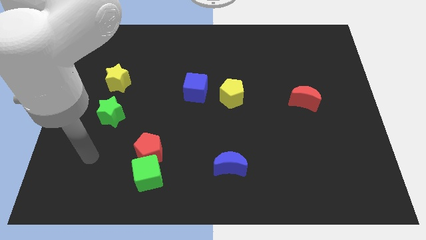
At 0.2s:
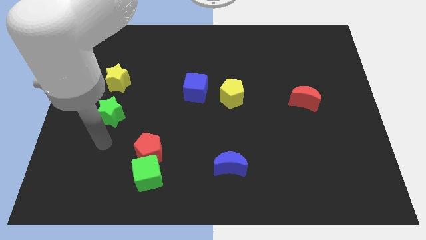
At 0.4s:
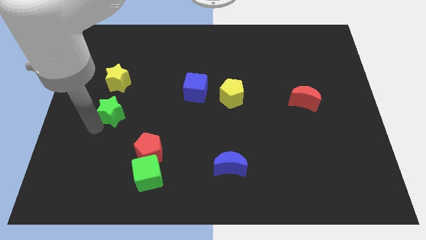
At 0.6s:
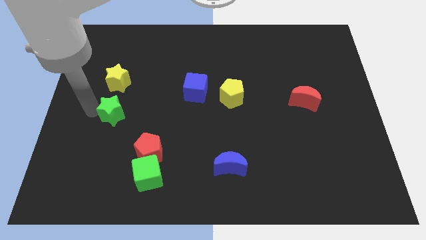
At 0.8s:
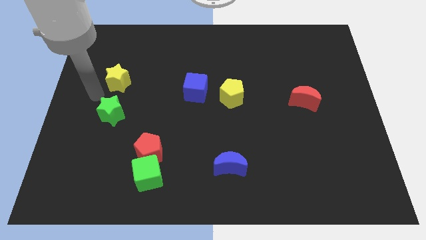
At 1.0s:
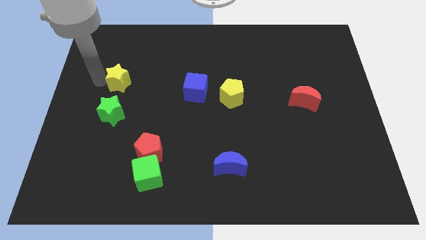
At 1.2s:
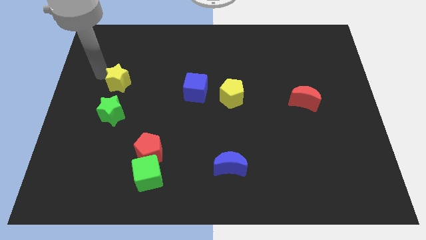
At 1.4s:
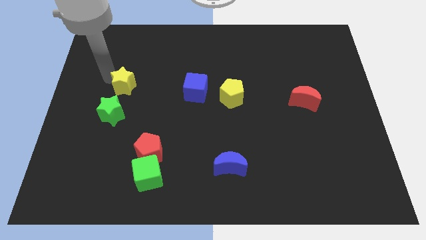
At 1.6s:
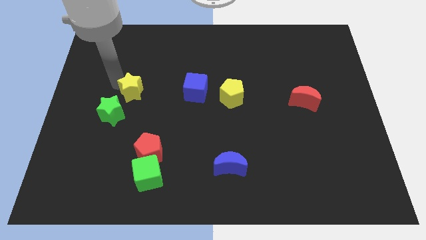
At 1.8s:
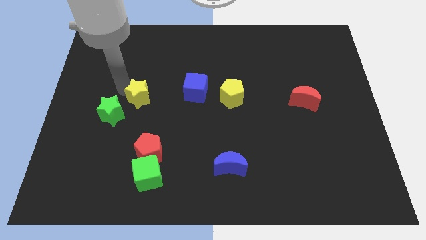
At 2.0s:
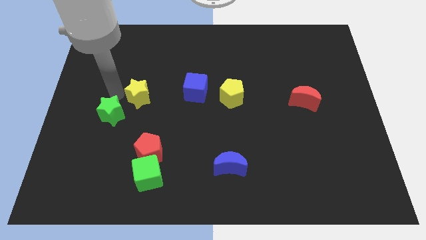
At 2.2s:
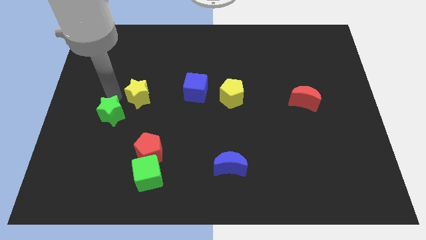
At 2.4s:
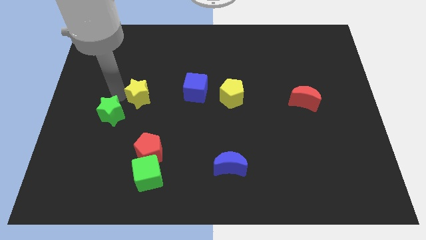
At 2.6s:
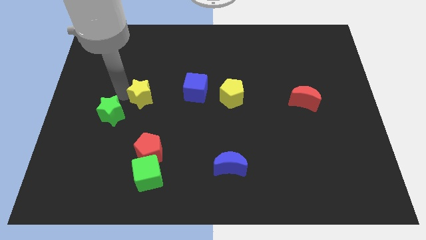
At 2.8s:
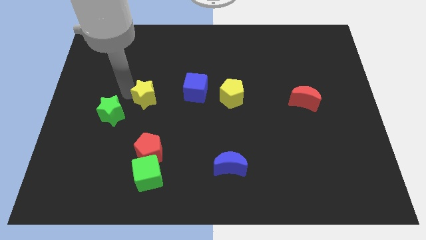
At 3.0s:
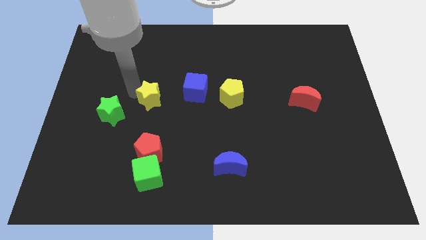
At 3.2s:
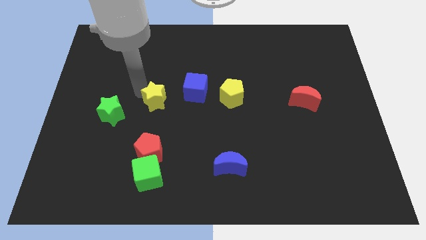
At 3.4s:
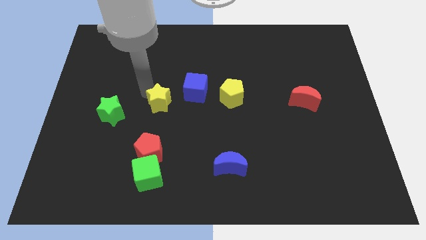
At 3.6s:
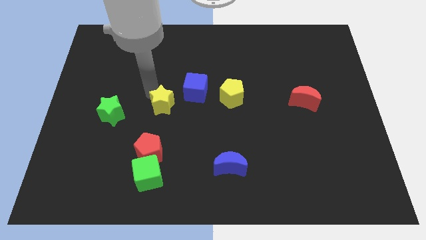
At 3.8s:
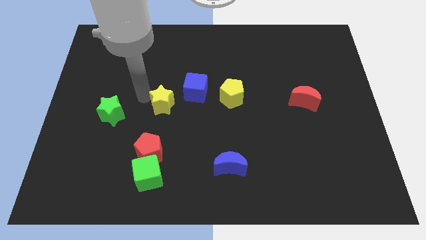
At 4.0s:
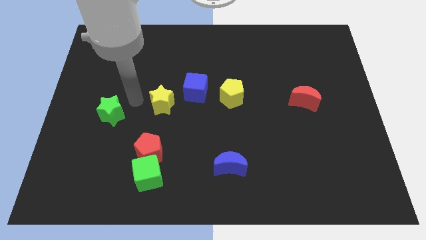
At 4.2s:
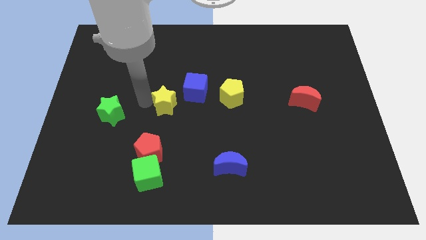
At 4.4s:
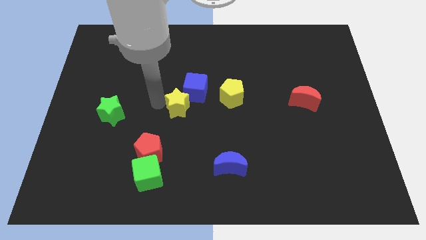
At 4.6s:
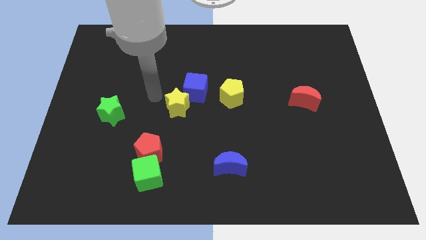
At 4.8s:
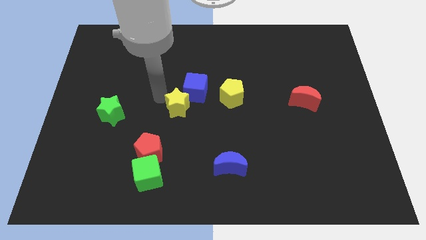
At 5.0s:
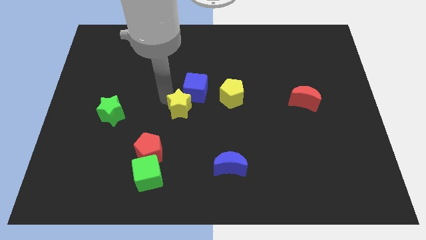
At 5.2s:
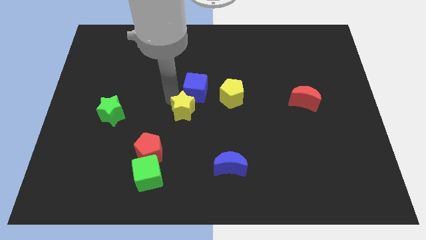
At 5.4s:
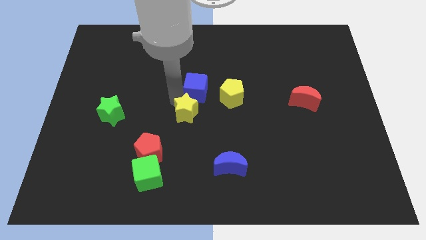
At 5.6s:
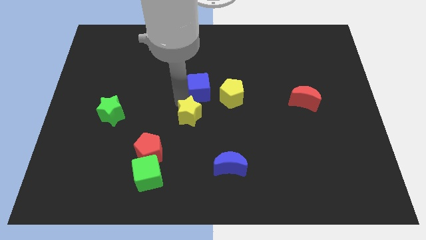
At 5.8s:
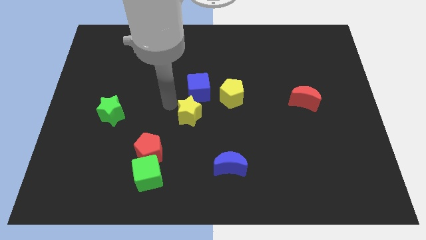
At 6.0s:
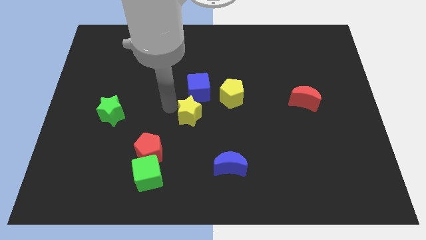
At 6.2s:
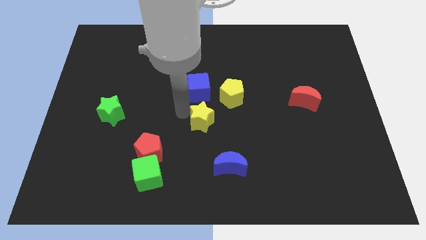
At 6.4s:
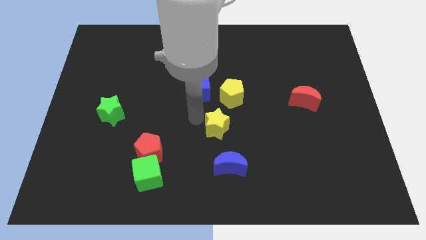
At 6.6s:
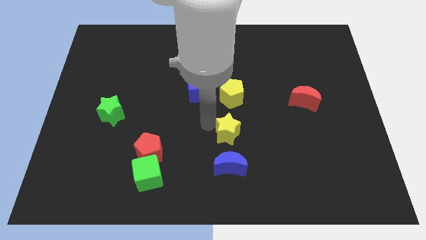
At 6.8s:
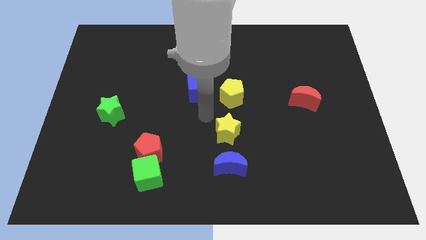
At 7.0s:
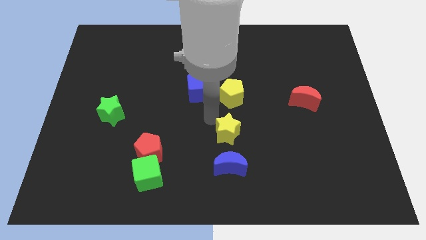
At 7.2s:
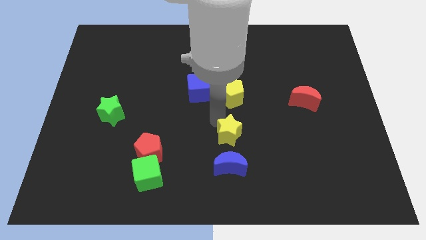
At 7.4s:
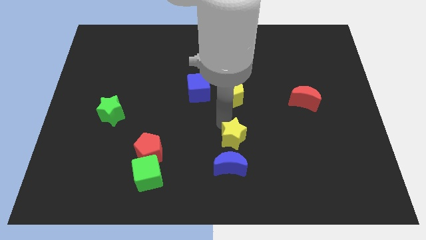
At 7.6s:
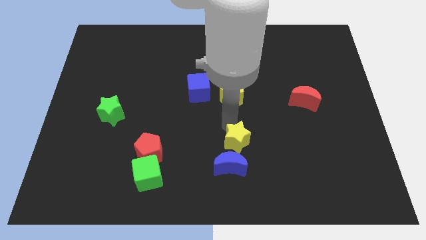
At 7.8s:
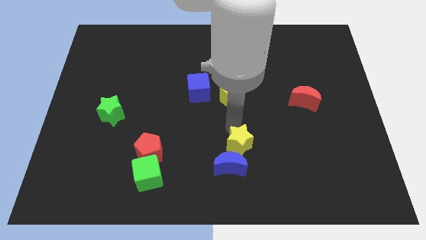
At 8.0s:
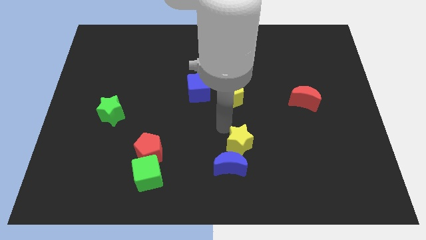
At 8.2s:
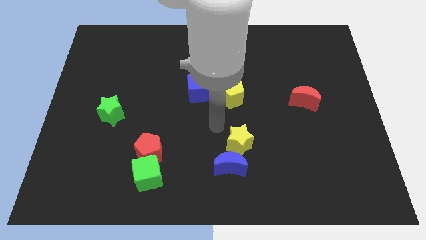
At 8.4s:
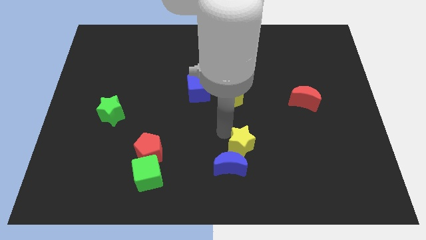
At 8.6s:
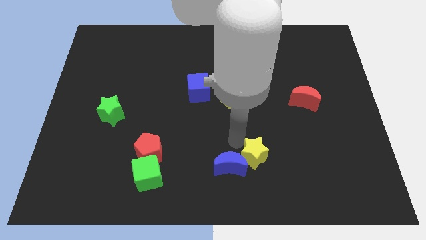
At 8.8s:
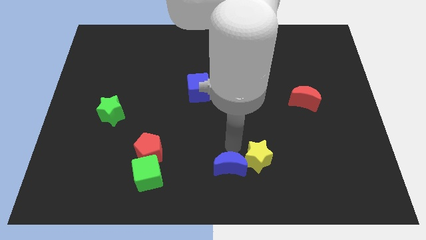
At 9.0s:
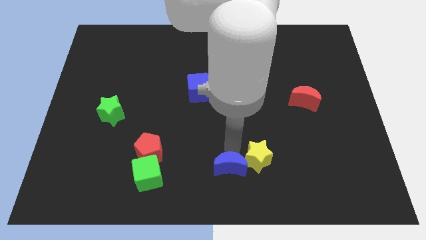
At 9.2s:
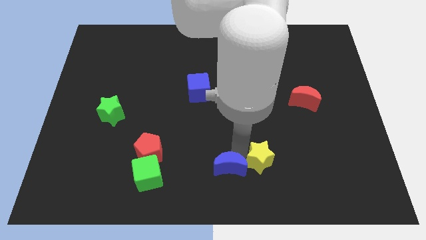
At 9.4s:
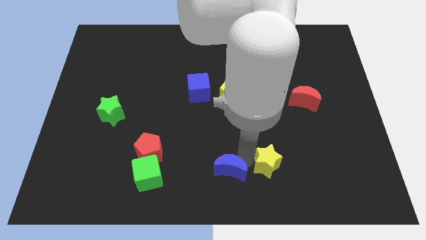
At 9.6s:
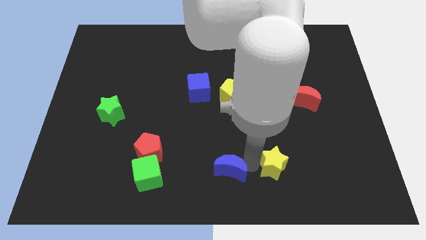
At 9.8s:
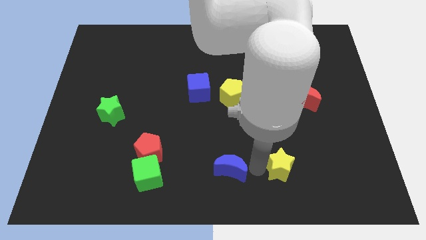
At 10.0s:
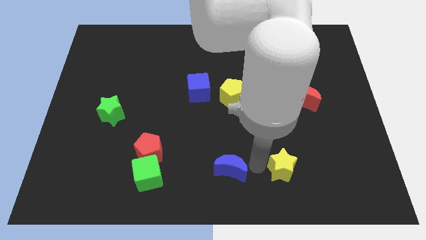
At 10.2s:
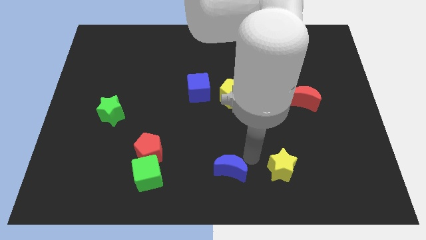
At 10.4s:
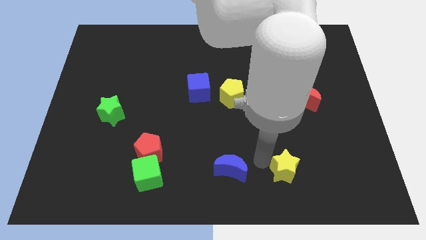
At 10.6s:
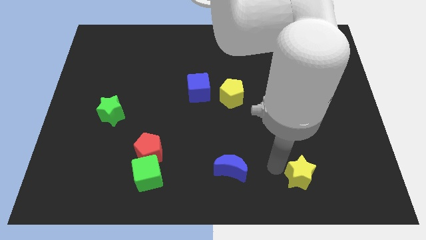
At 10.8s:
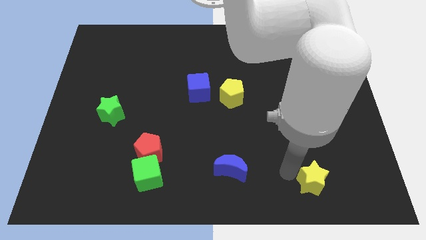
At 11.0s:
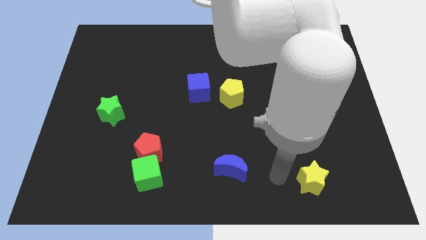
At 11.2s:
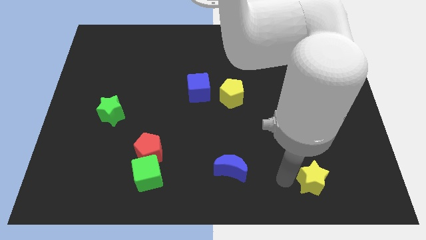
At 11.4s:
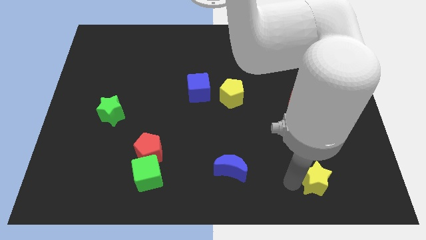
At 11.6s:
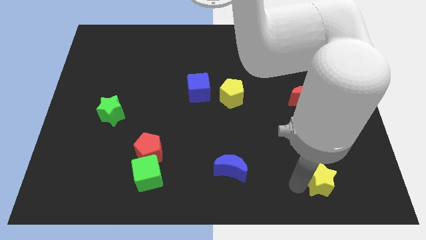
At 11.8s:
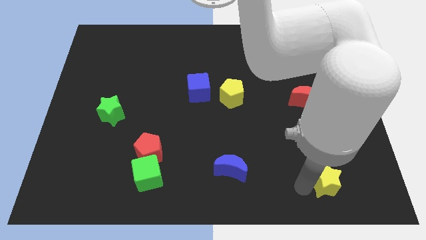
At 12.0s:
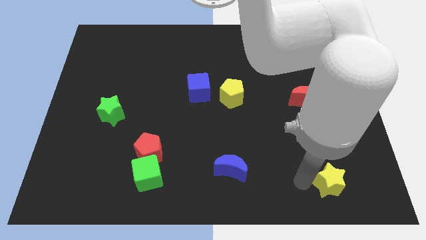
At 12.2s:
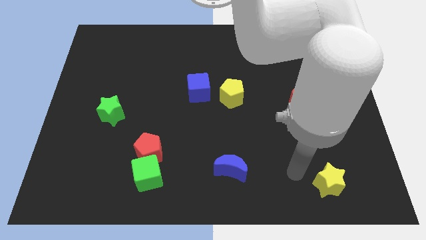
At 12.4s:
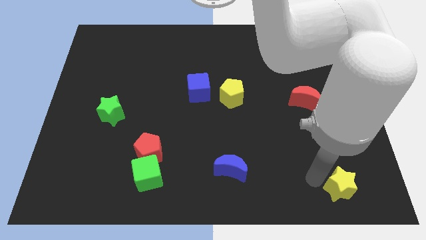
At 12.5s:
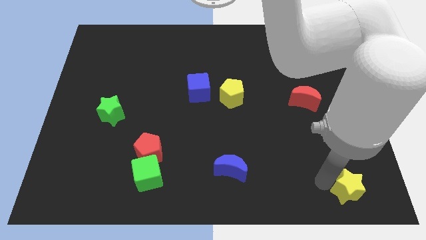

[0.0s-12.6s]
put the yellow star to the bottom right

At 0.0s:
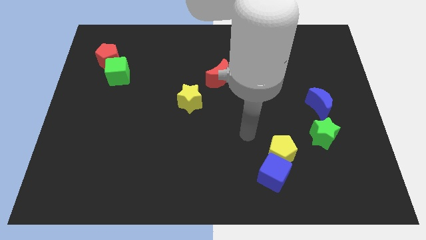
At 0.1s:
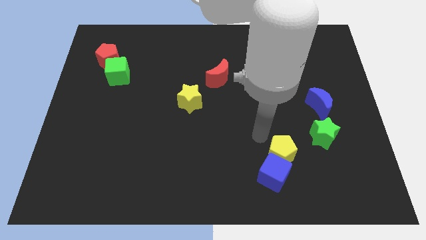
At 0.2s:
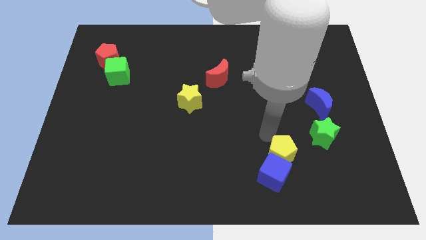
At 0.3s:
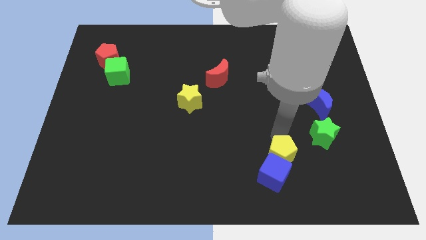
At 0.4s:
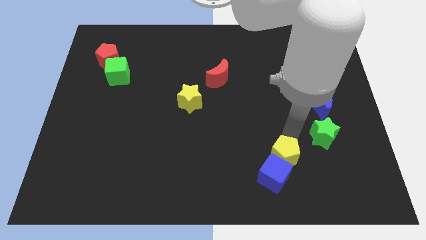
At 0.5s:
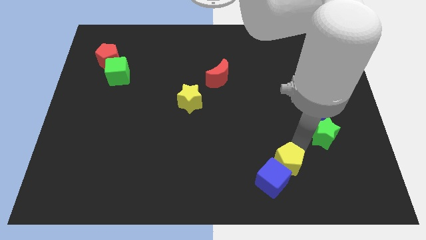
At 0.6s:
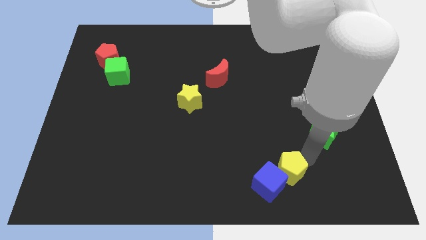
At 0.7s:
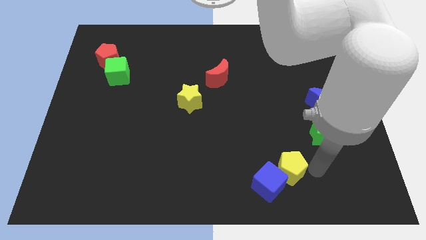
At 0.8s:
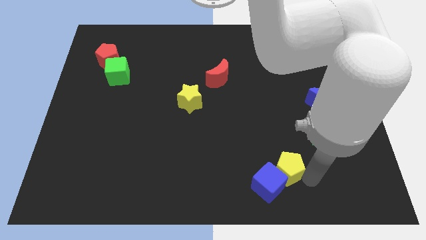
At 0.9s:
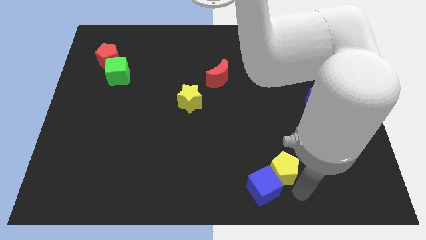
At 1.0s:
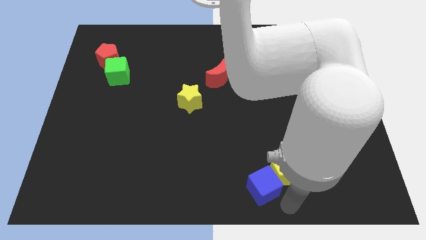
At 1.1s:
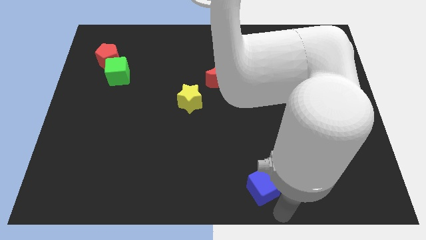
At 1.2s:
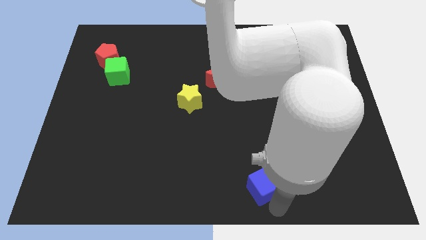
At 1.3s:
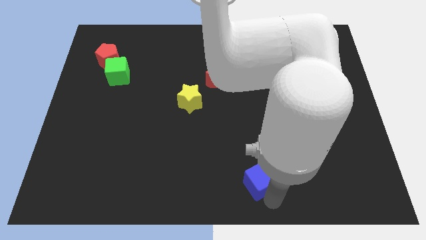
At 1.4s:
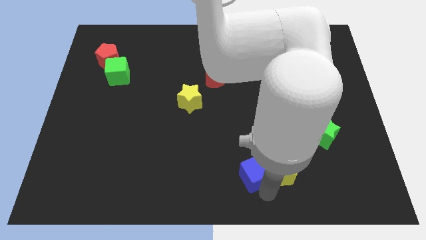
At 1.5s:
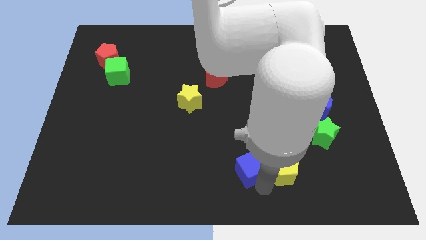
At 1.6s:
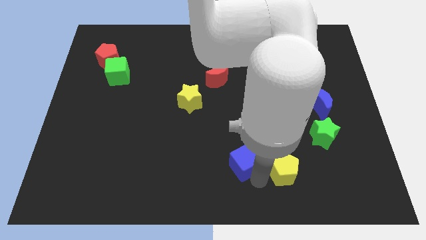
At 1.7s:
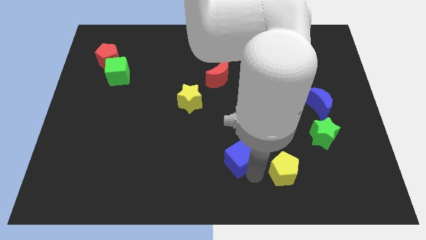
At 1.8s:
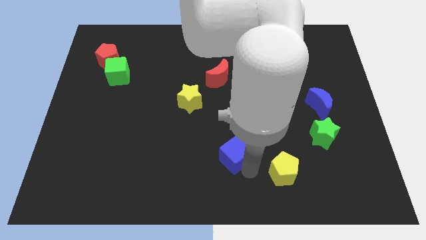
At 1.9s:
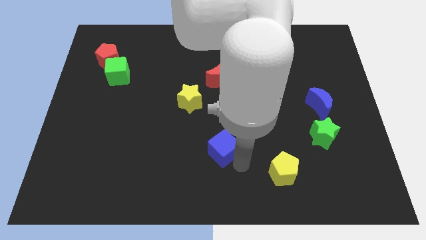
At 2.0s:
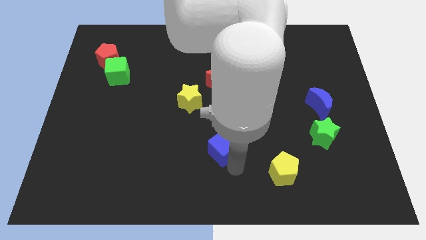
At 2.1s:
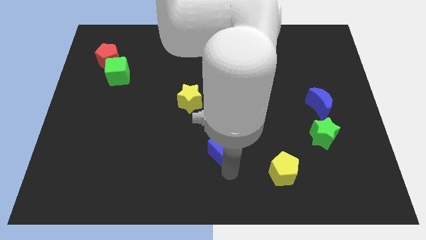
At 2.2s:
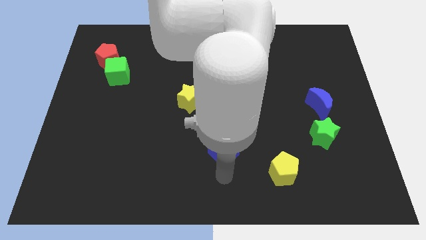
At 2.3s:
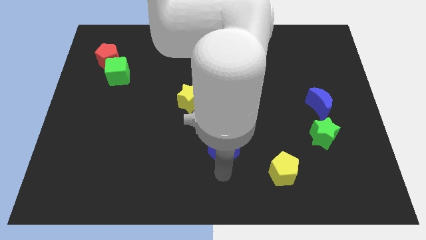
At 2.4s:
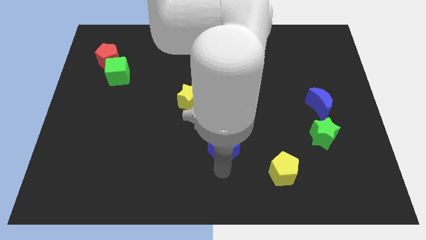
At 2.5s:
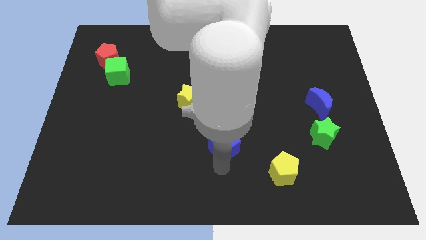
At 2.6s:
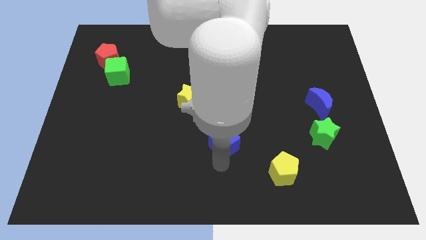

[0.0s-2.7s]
move the blue cube to the middle
